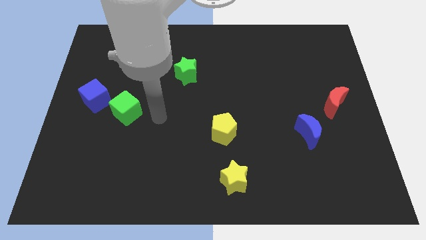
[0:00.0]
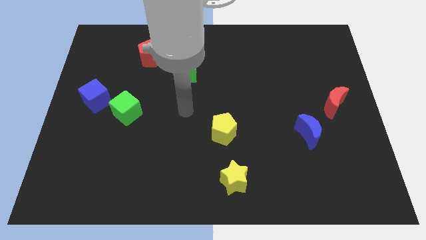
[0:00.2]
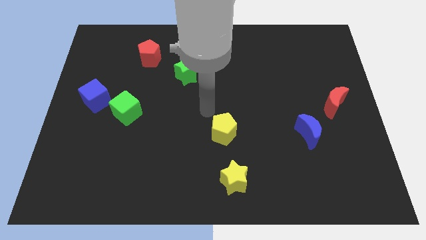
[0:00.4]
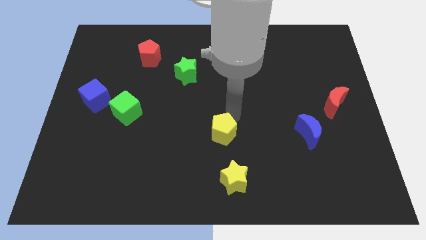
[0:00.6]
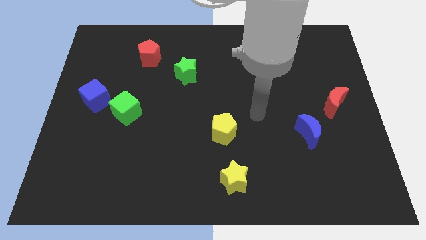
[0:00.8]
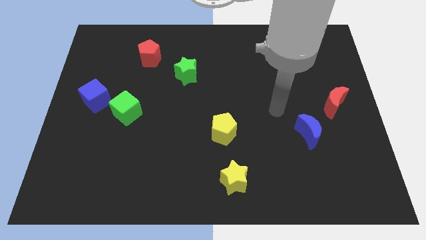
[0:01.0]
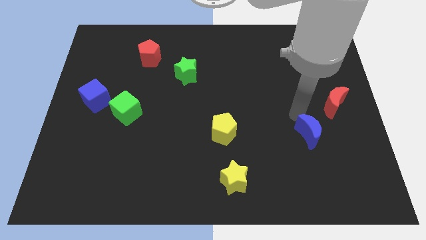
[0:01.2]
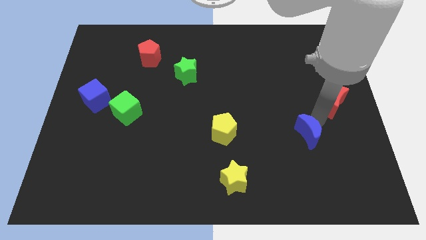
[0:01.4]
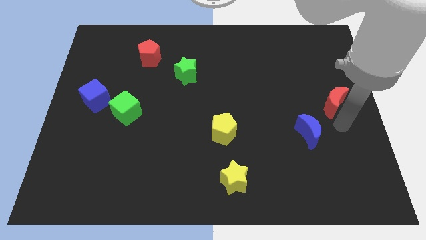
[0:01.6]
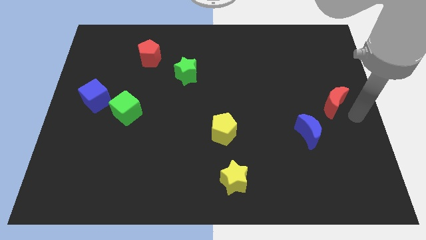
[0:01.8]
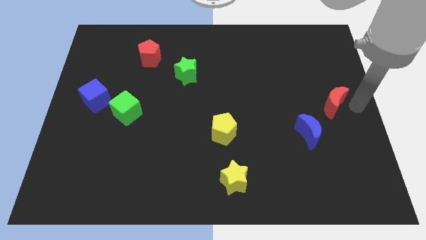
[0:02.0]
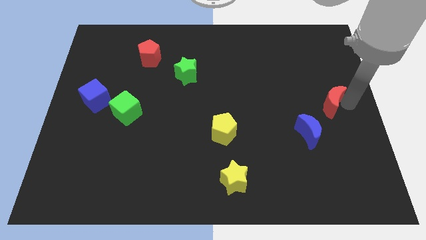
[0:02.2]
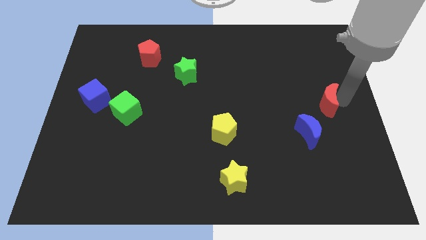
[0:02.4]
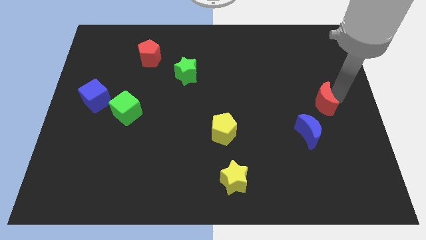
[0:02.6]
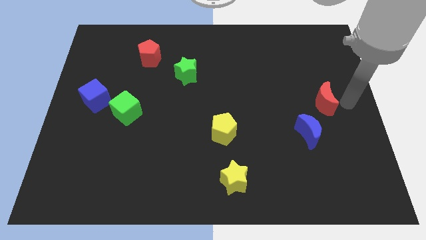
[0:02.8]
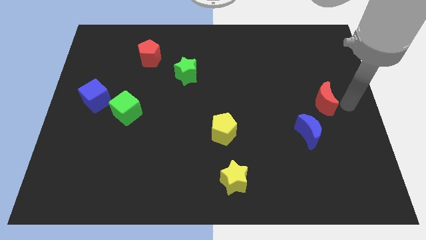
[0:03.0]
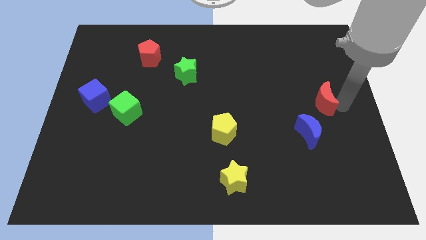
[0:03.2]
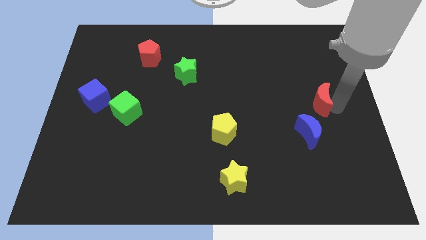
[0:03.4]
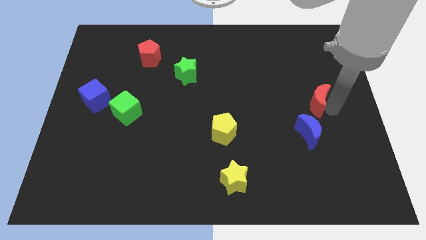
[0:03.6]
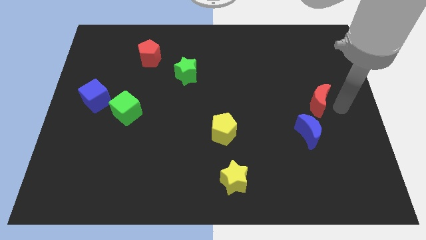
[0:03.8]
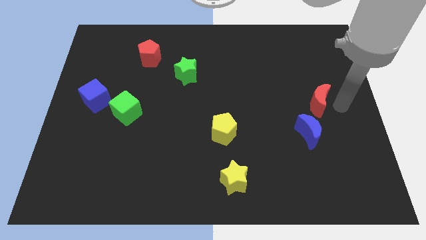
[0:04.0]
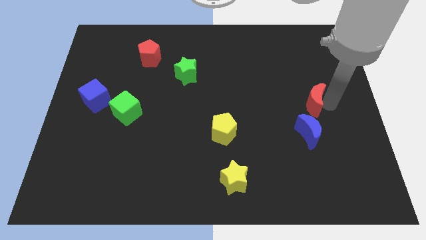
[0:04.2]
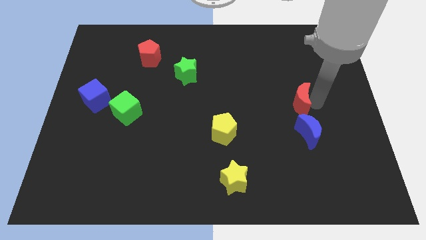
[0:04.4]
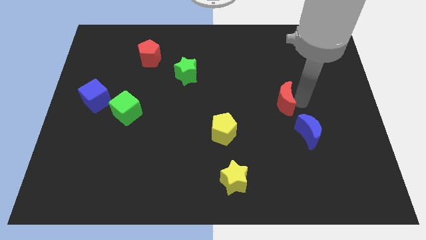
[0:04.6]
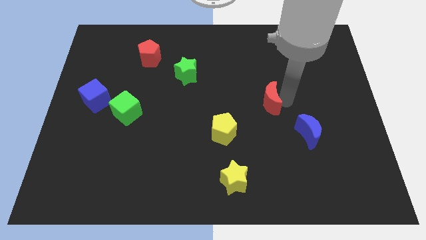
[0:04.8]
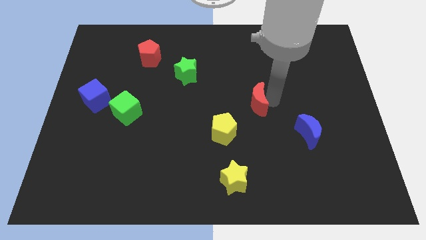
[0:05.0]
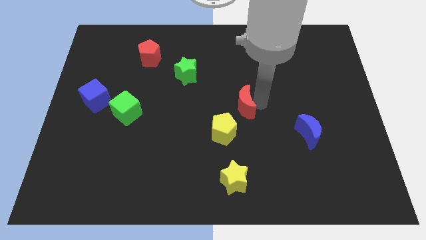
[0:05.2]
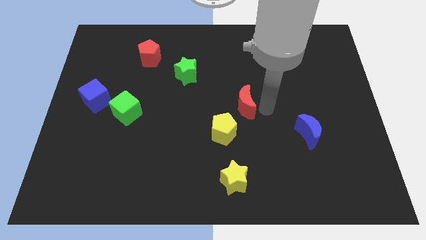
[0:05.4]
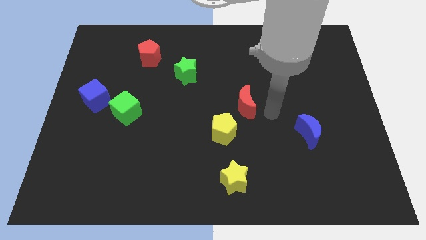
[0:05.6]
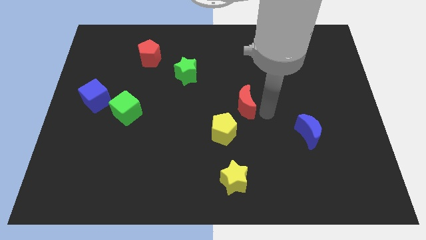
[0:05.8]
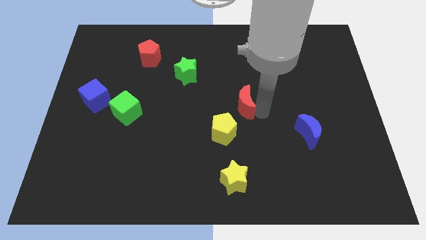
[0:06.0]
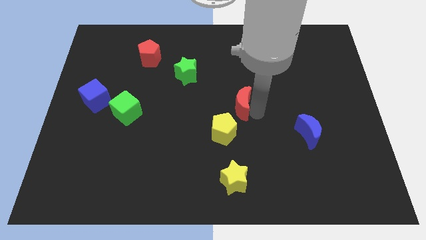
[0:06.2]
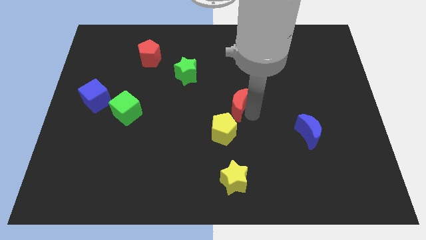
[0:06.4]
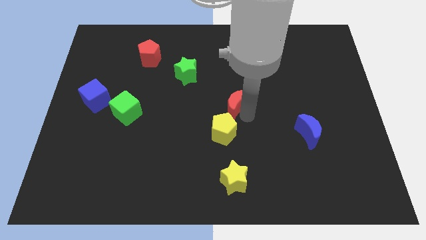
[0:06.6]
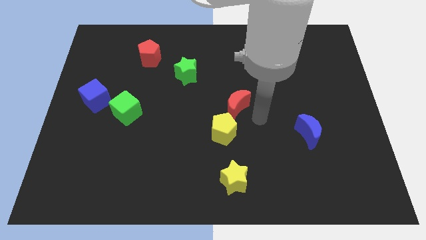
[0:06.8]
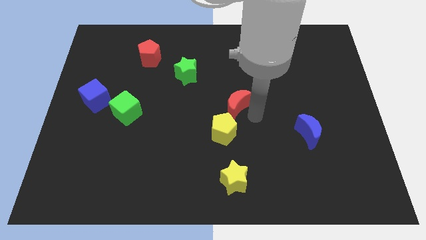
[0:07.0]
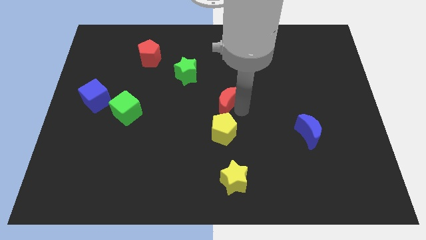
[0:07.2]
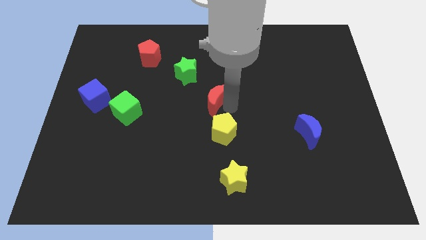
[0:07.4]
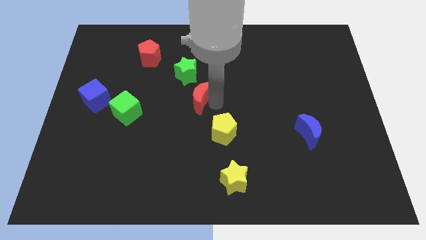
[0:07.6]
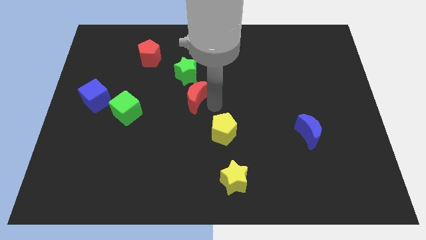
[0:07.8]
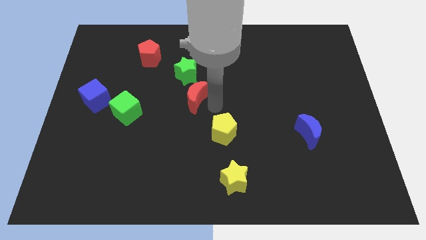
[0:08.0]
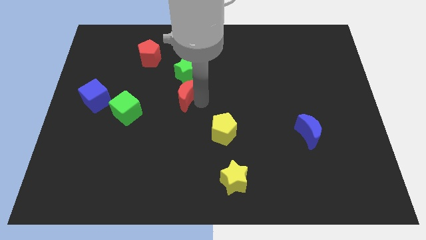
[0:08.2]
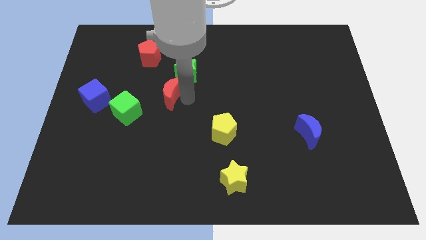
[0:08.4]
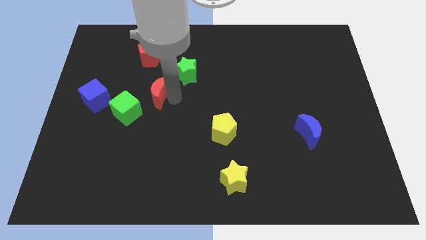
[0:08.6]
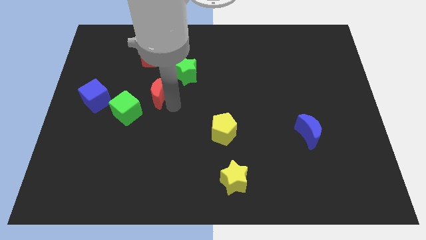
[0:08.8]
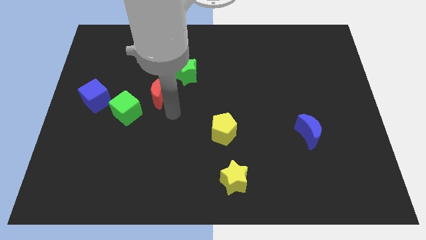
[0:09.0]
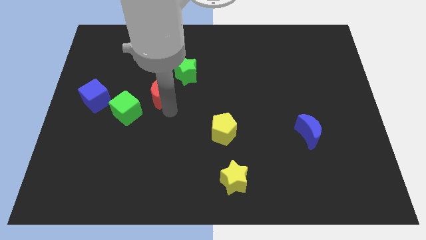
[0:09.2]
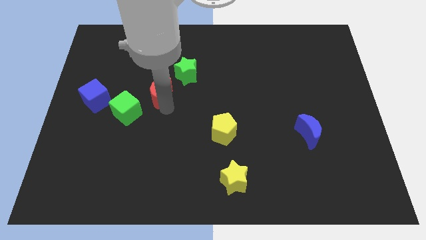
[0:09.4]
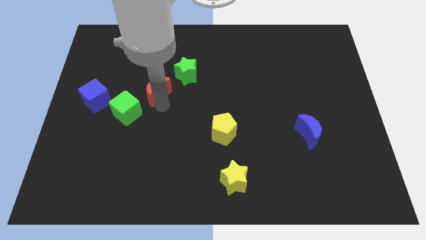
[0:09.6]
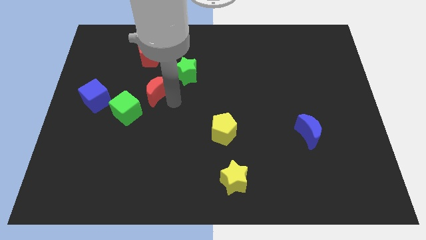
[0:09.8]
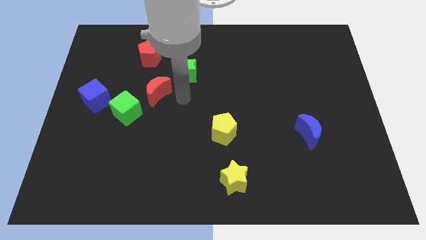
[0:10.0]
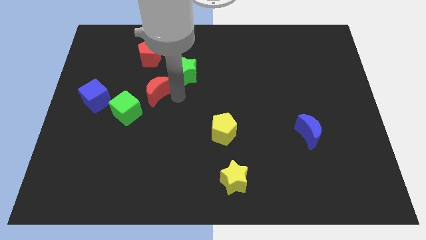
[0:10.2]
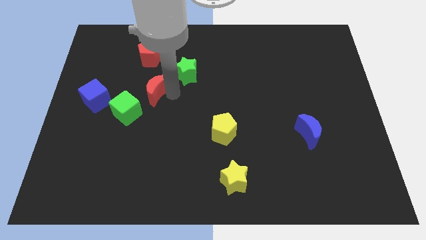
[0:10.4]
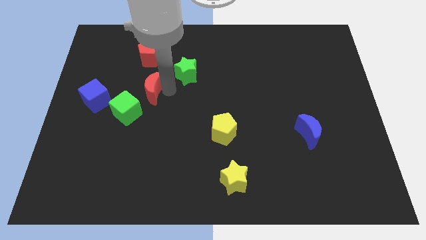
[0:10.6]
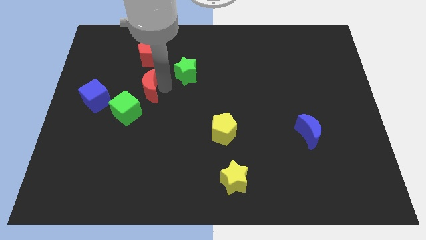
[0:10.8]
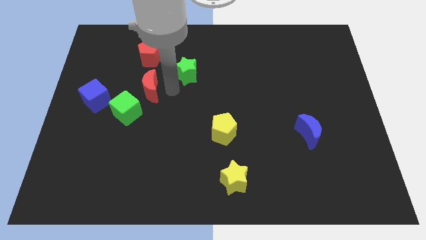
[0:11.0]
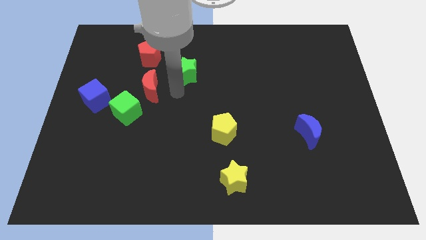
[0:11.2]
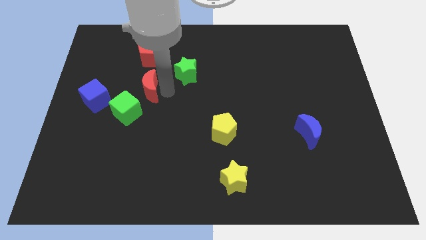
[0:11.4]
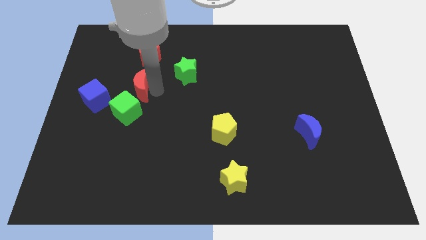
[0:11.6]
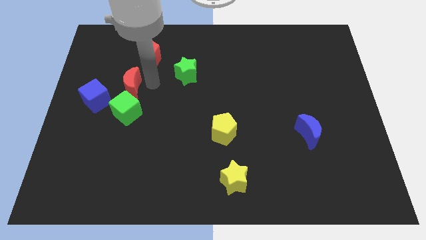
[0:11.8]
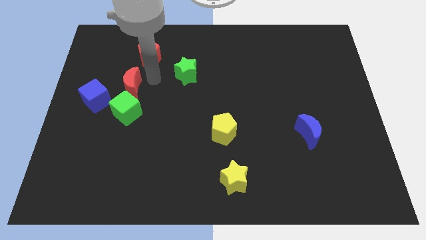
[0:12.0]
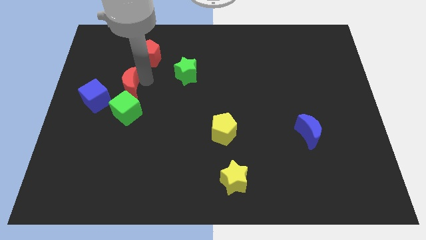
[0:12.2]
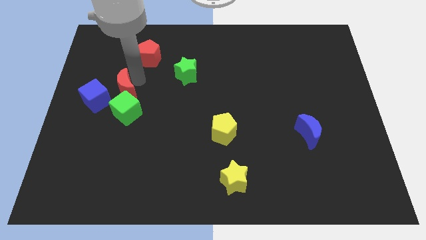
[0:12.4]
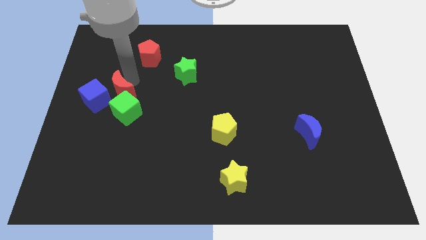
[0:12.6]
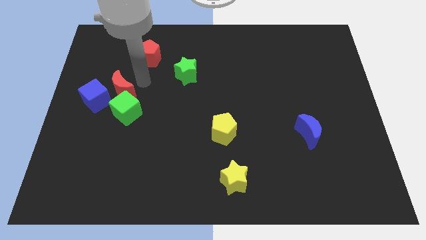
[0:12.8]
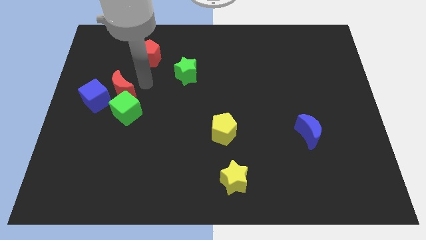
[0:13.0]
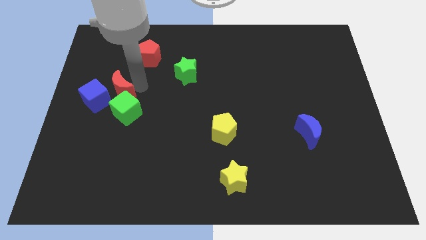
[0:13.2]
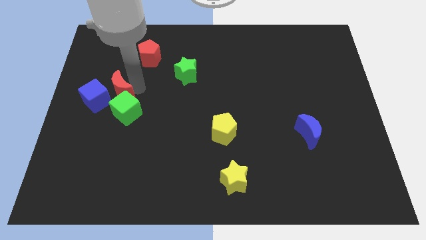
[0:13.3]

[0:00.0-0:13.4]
put the red moon towards the blue cube

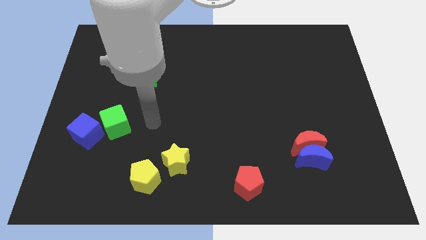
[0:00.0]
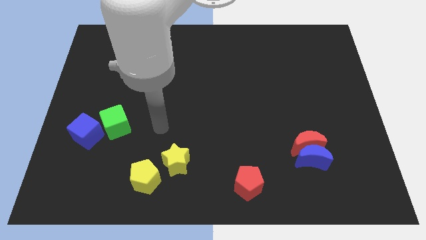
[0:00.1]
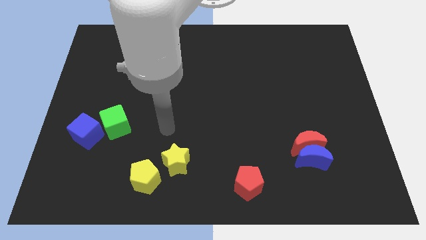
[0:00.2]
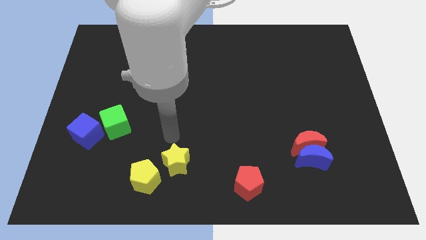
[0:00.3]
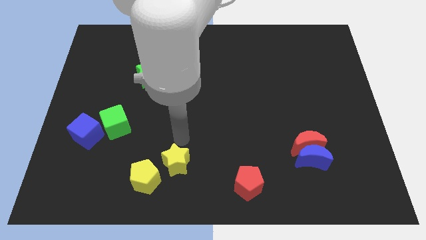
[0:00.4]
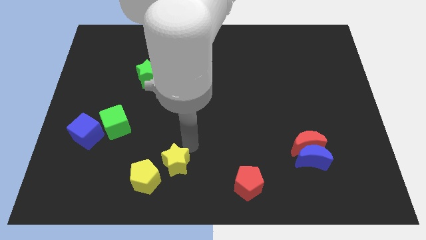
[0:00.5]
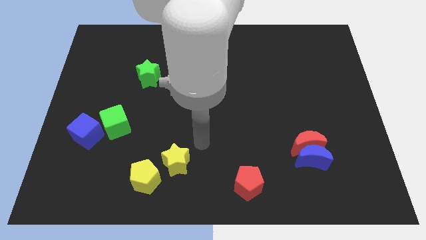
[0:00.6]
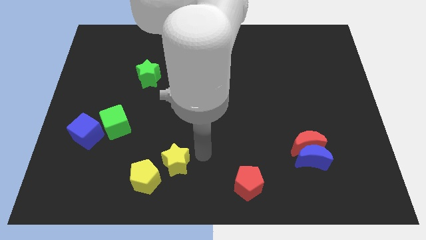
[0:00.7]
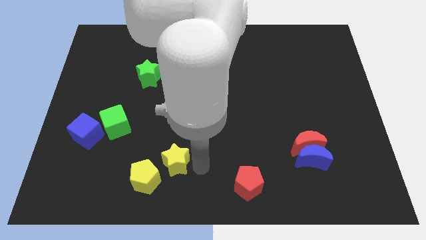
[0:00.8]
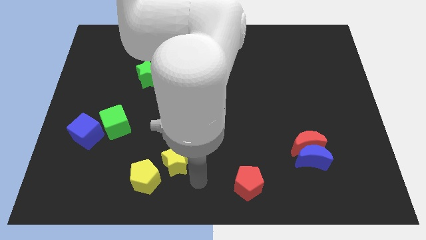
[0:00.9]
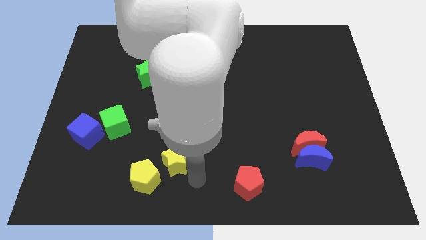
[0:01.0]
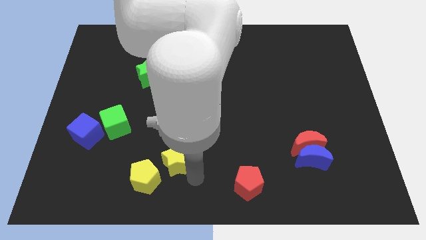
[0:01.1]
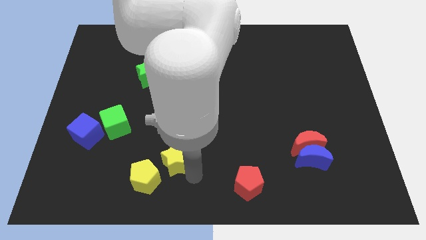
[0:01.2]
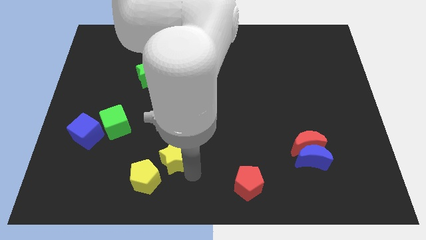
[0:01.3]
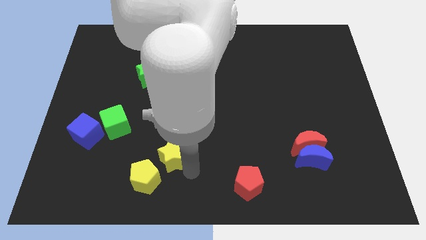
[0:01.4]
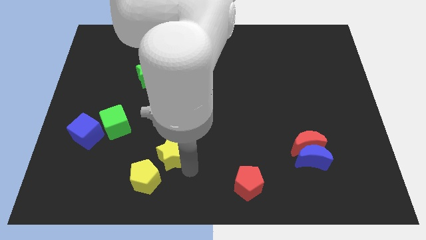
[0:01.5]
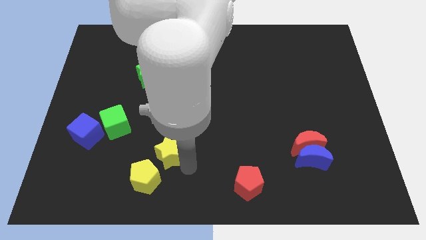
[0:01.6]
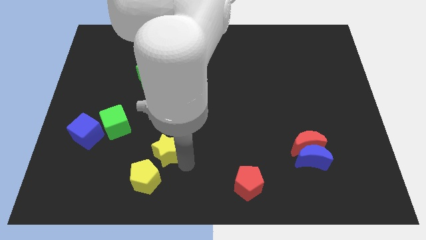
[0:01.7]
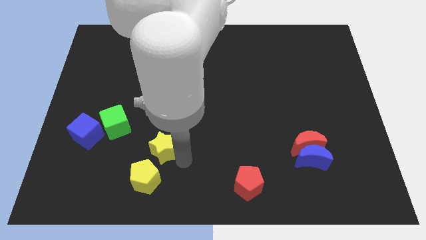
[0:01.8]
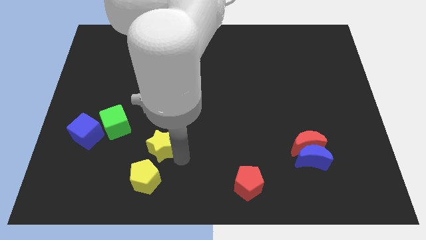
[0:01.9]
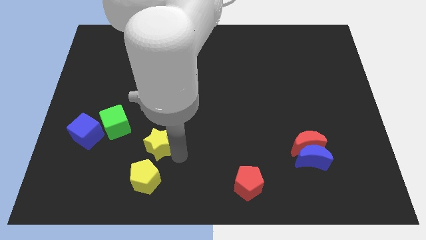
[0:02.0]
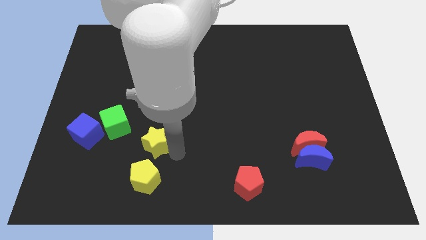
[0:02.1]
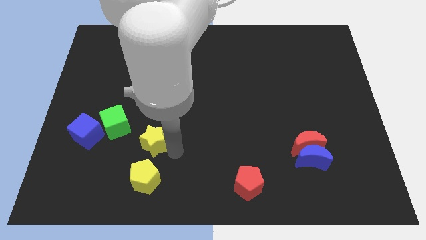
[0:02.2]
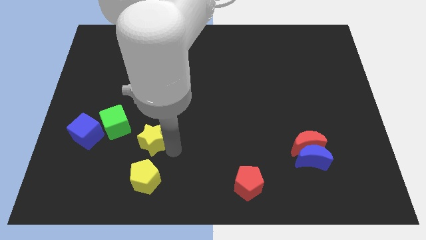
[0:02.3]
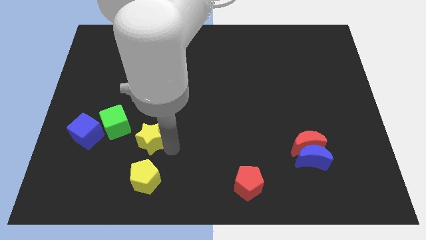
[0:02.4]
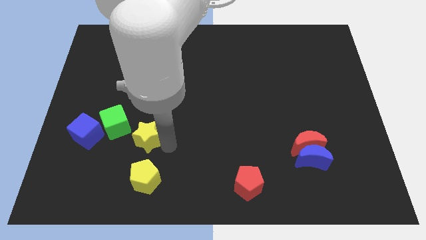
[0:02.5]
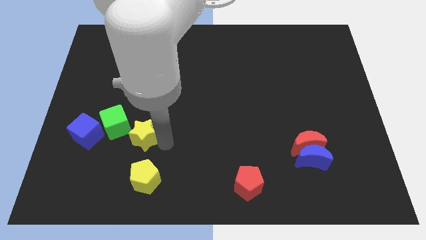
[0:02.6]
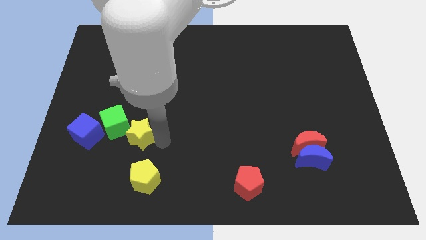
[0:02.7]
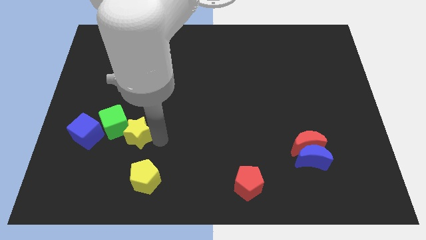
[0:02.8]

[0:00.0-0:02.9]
put the yellow star to the green cube
